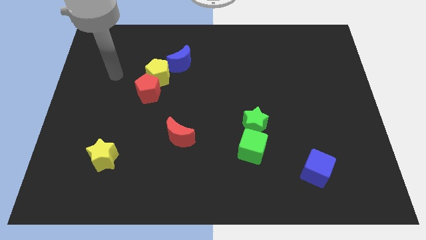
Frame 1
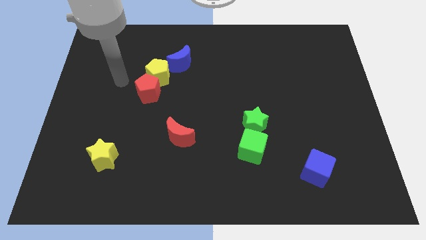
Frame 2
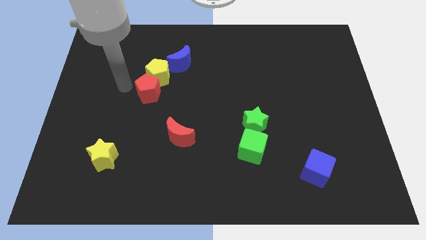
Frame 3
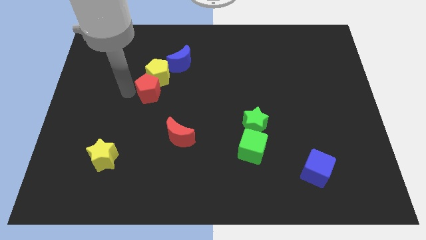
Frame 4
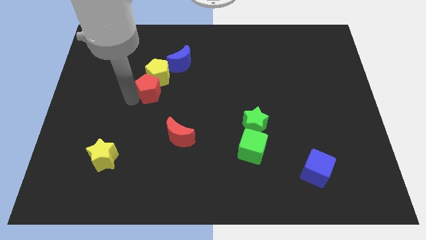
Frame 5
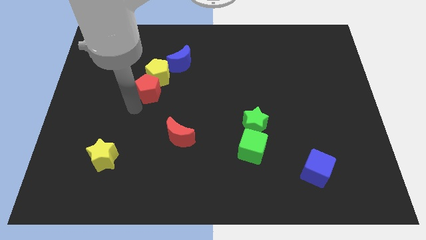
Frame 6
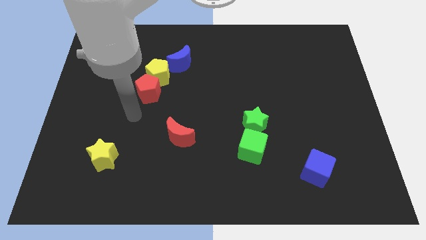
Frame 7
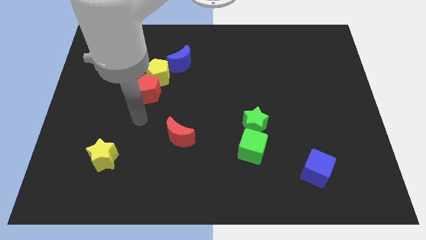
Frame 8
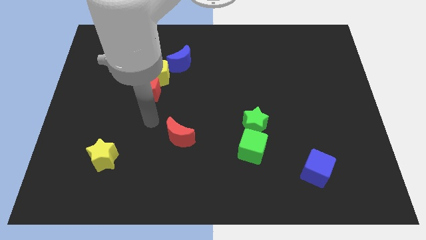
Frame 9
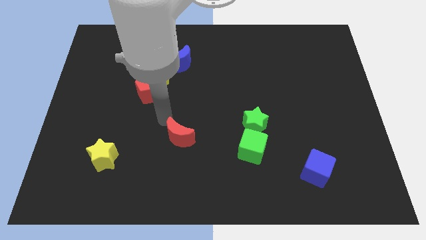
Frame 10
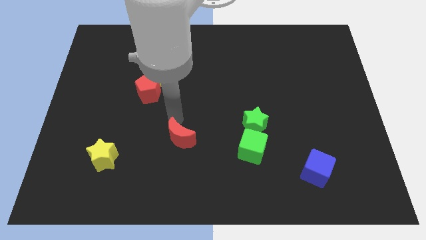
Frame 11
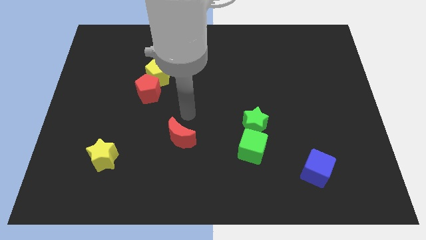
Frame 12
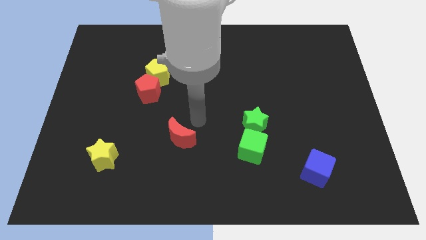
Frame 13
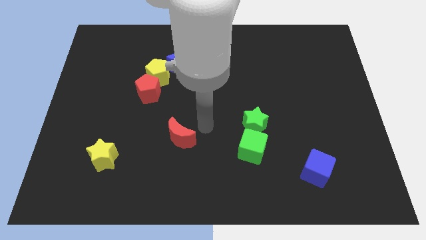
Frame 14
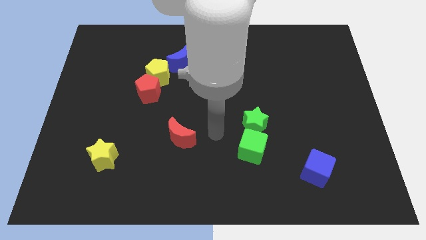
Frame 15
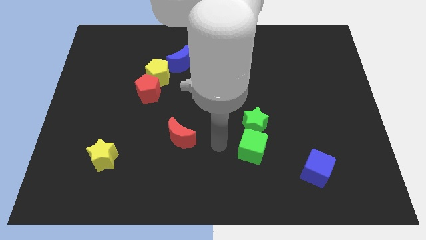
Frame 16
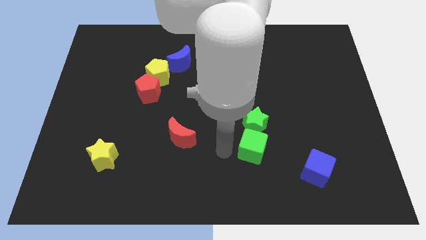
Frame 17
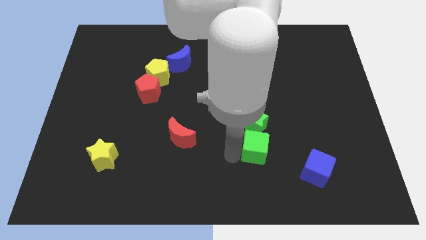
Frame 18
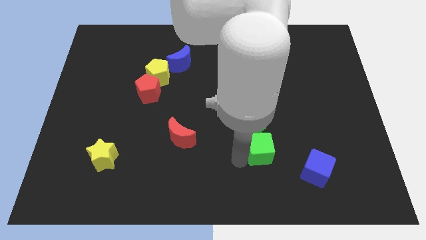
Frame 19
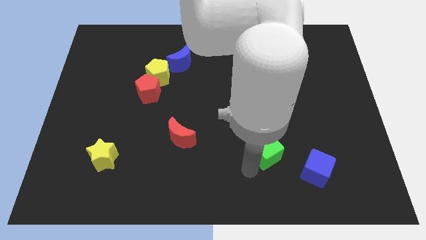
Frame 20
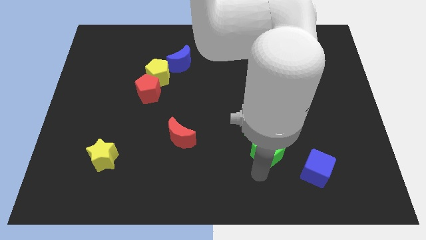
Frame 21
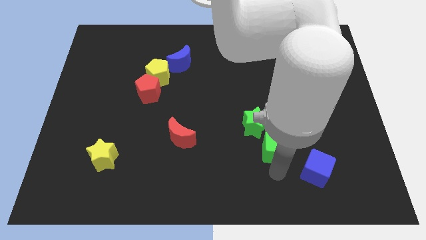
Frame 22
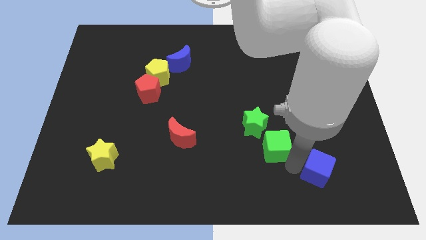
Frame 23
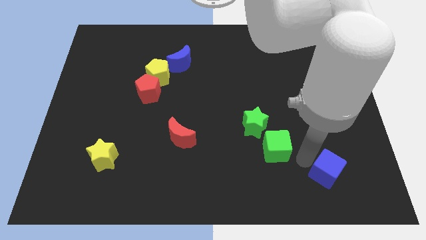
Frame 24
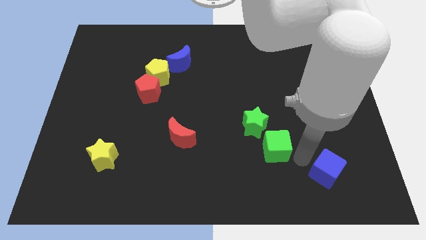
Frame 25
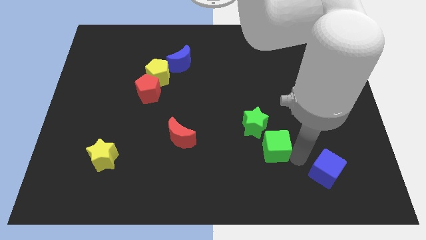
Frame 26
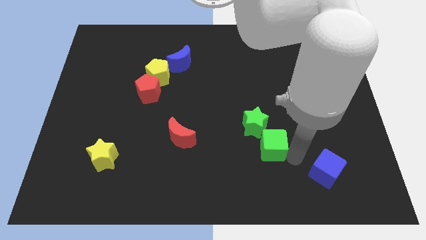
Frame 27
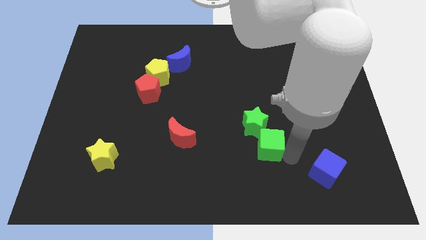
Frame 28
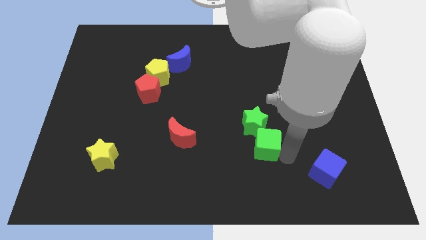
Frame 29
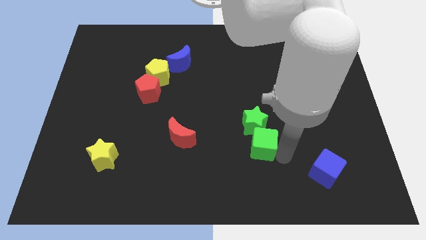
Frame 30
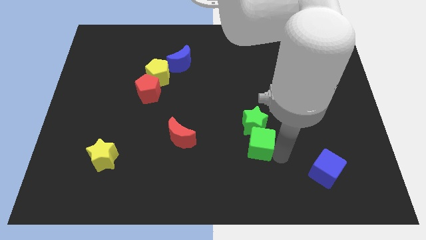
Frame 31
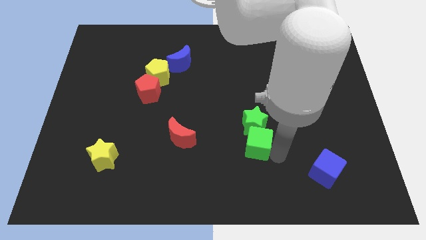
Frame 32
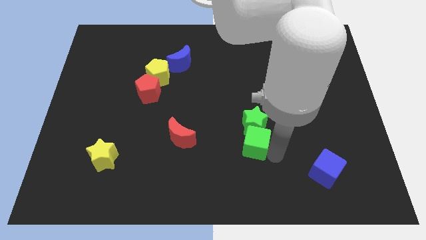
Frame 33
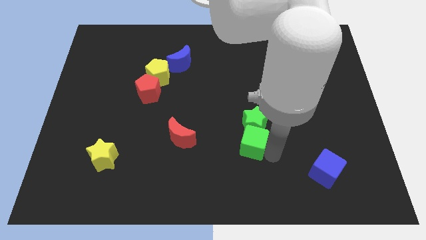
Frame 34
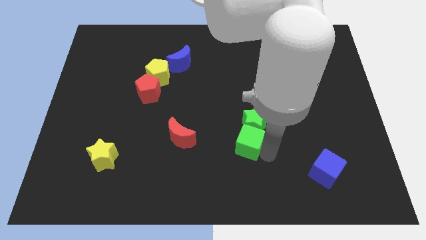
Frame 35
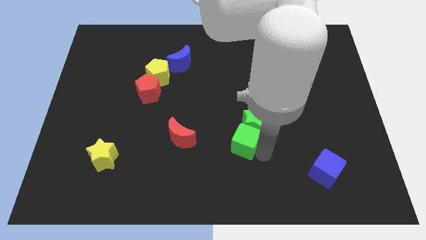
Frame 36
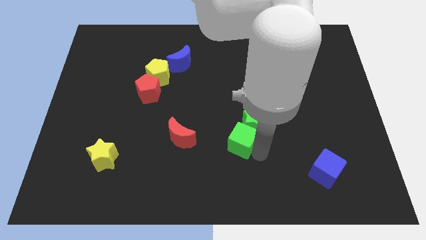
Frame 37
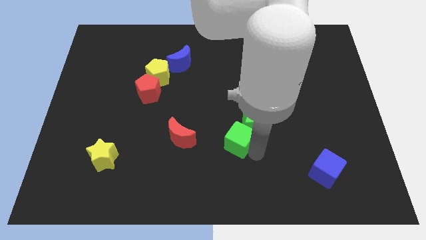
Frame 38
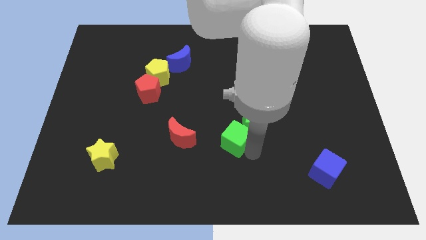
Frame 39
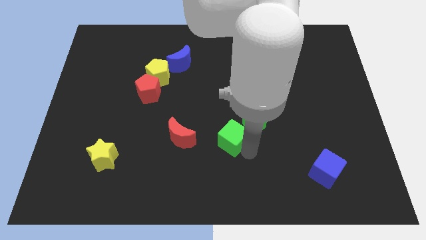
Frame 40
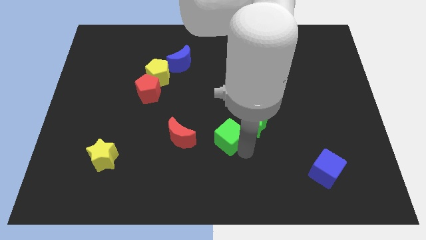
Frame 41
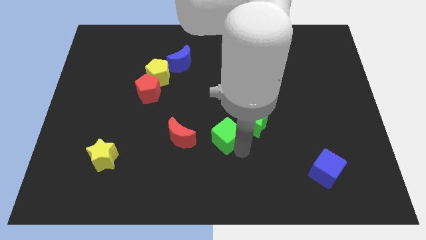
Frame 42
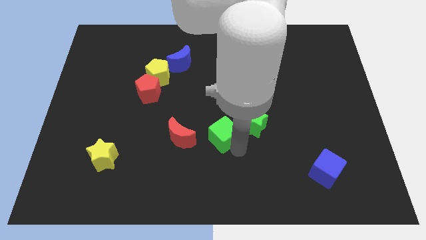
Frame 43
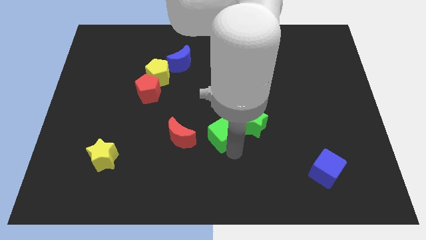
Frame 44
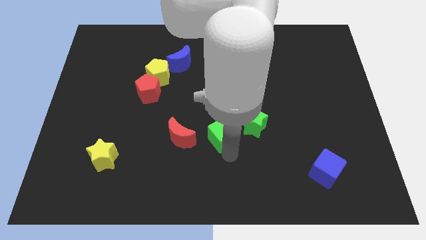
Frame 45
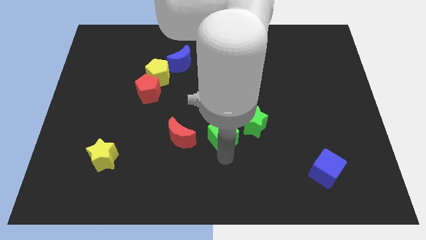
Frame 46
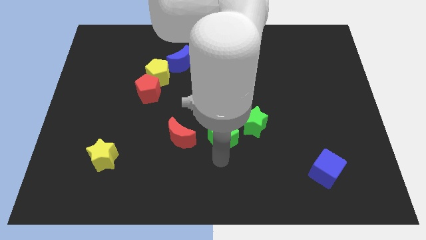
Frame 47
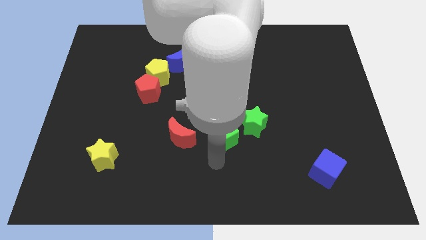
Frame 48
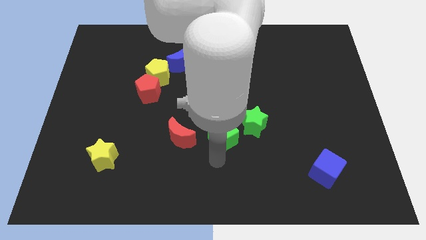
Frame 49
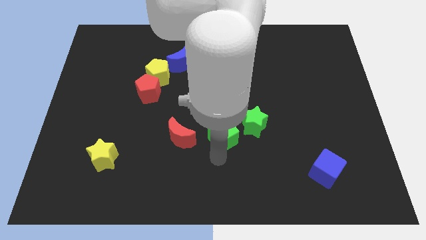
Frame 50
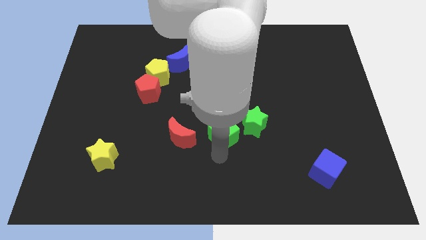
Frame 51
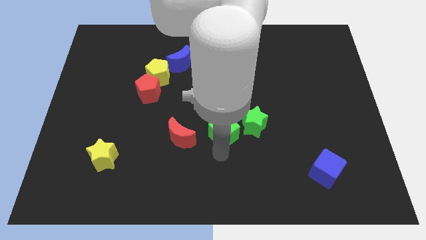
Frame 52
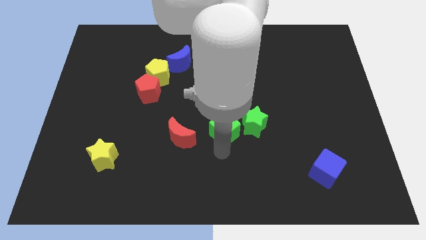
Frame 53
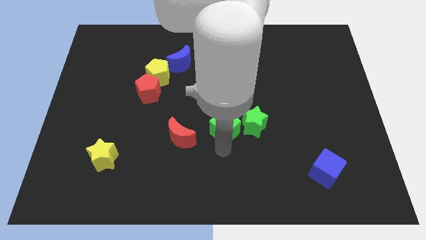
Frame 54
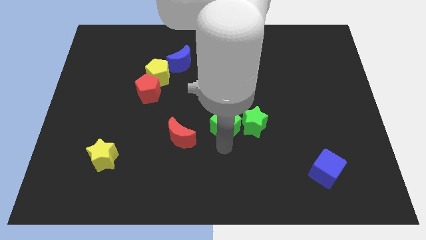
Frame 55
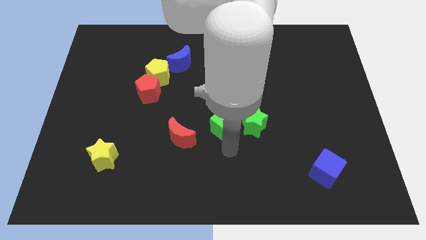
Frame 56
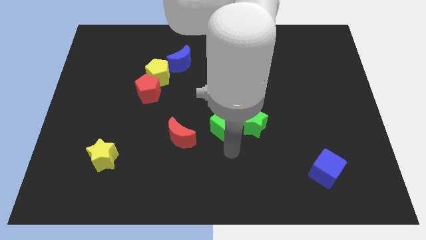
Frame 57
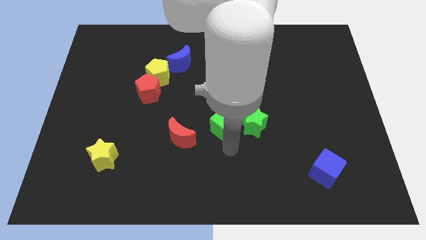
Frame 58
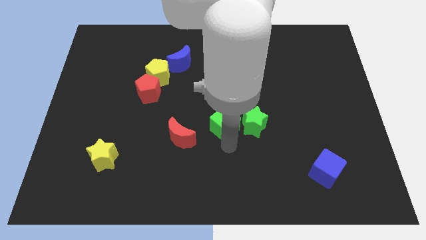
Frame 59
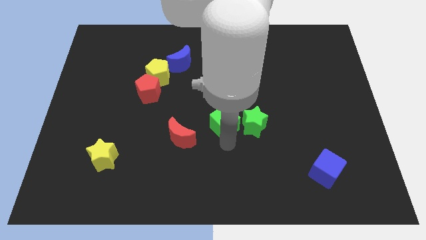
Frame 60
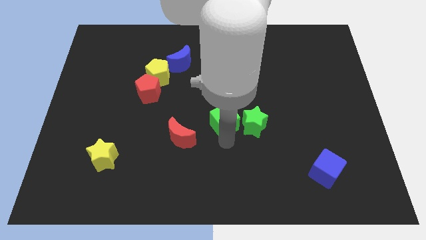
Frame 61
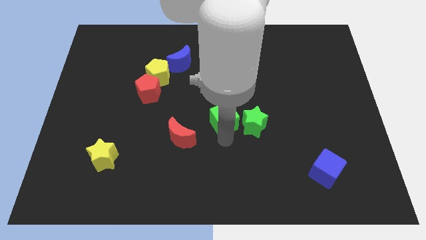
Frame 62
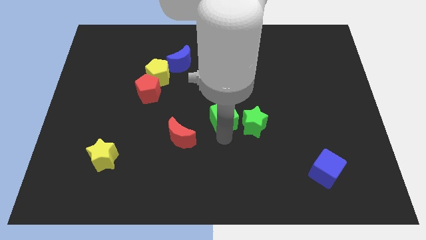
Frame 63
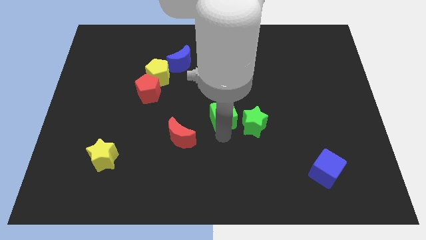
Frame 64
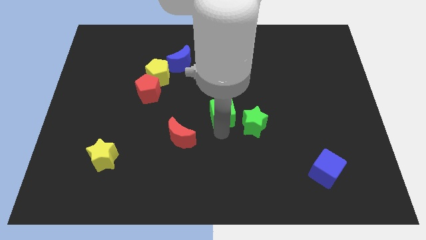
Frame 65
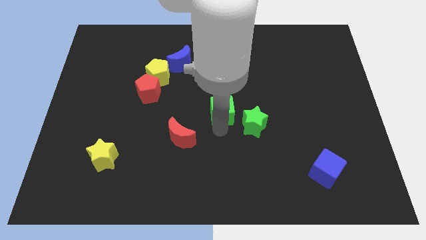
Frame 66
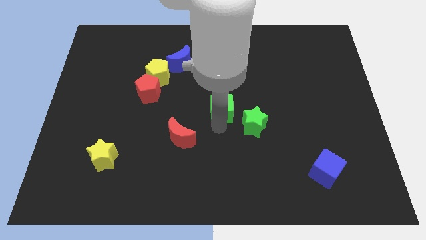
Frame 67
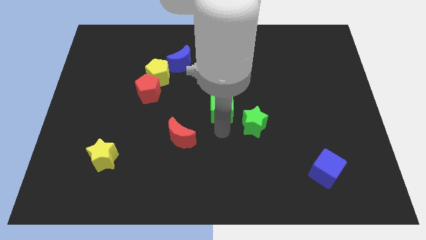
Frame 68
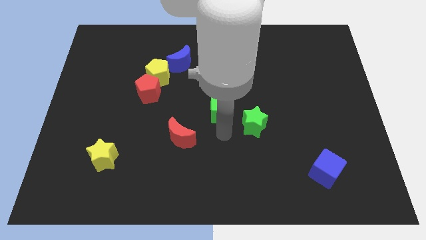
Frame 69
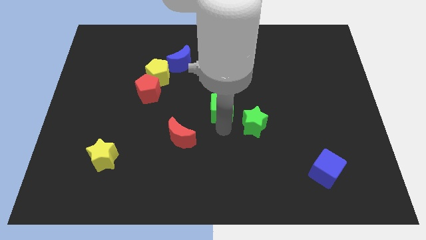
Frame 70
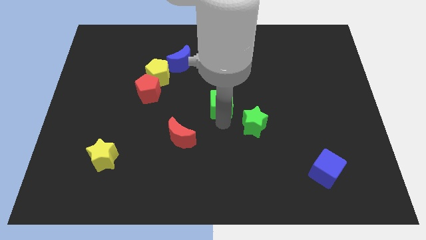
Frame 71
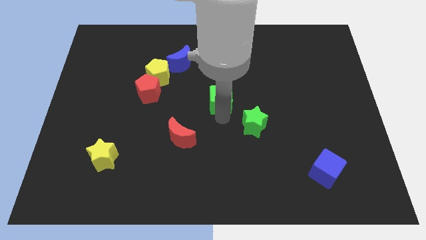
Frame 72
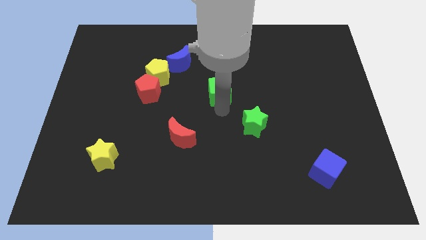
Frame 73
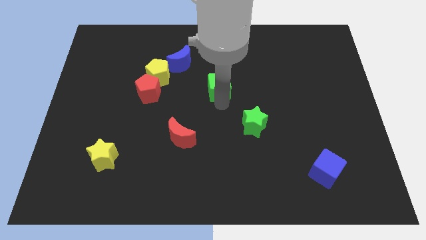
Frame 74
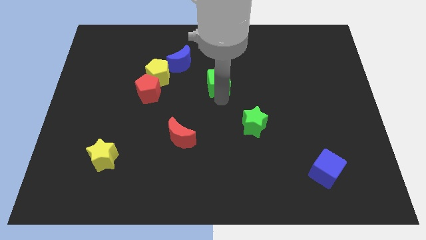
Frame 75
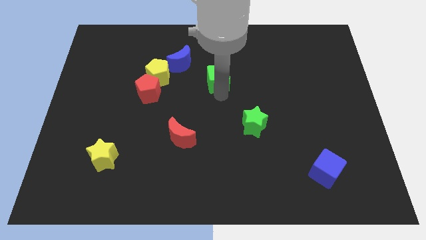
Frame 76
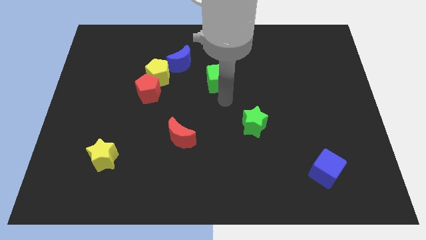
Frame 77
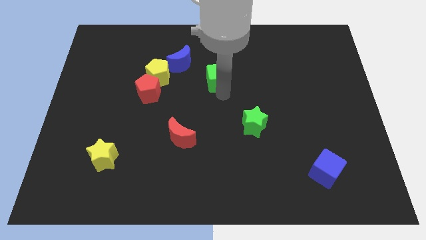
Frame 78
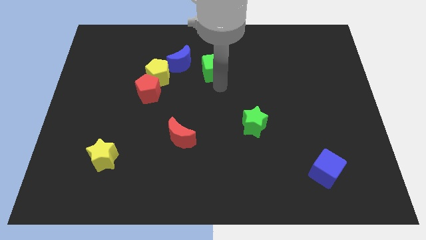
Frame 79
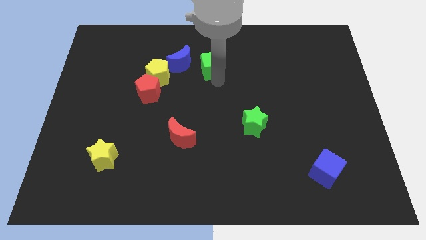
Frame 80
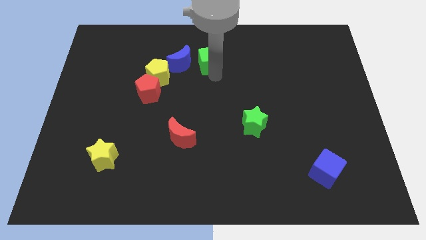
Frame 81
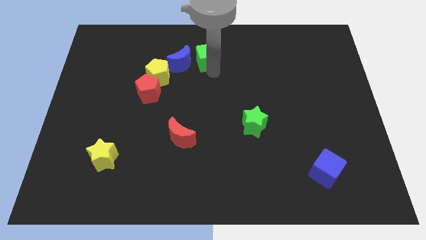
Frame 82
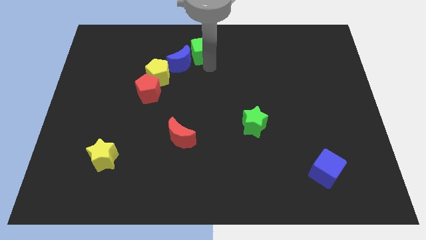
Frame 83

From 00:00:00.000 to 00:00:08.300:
push the green cube to the top side
